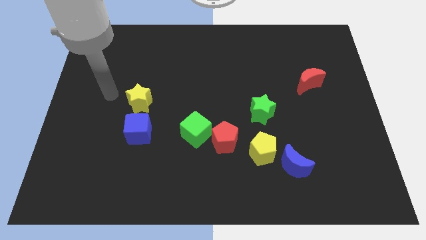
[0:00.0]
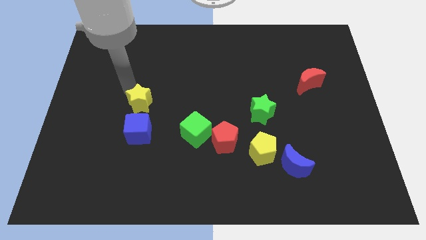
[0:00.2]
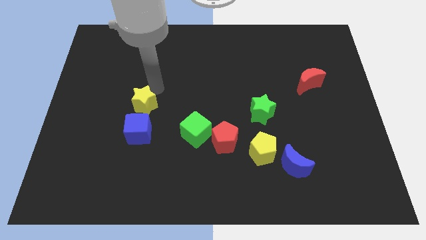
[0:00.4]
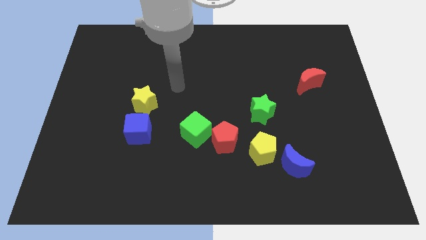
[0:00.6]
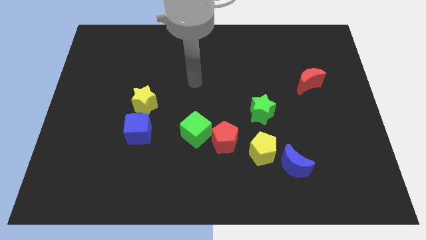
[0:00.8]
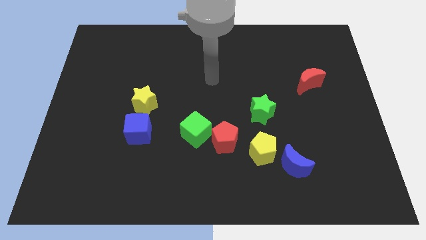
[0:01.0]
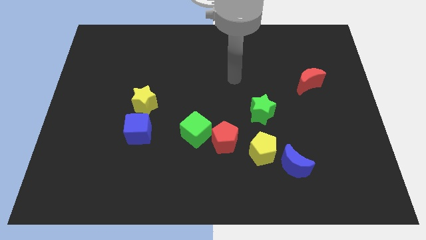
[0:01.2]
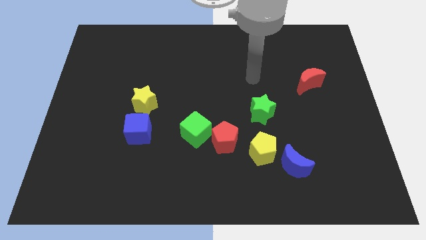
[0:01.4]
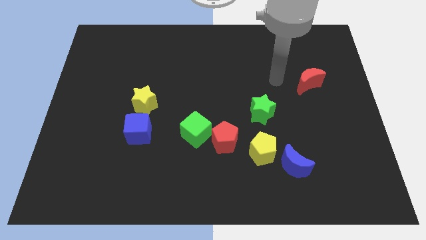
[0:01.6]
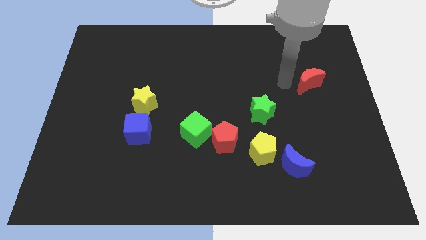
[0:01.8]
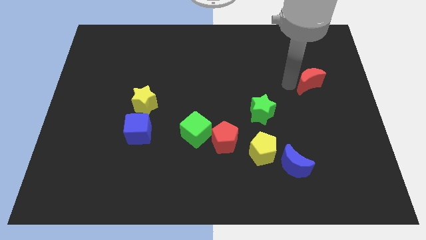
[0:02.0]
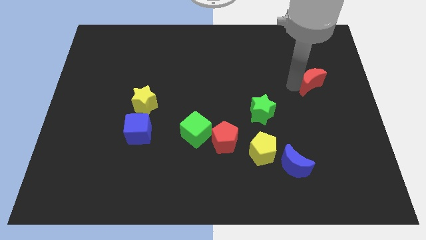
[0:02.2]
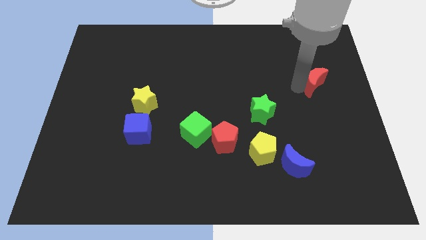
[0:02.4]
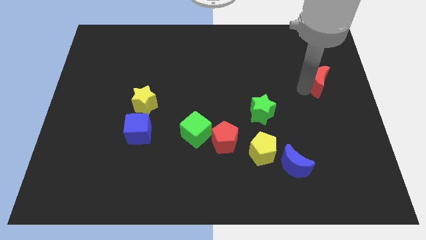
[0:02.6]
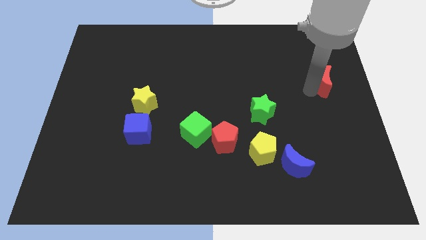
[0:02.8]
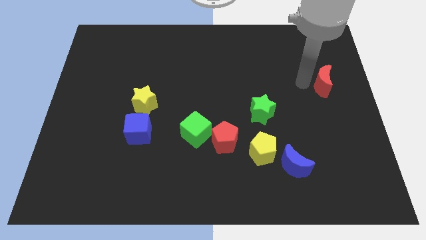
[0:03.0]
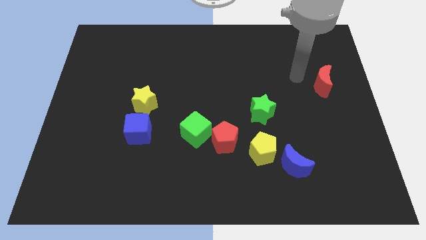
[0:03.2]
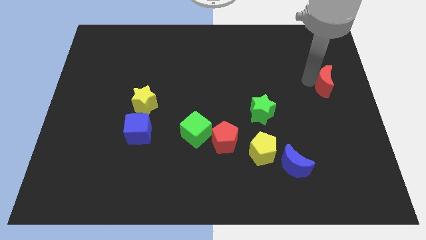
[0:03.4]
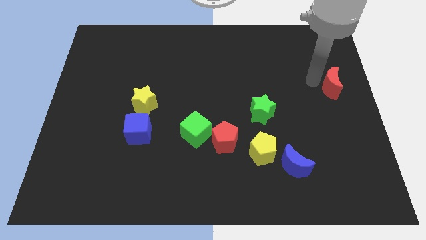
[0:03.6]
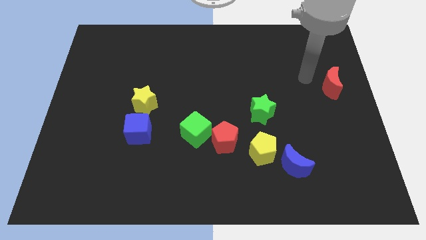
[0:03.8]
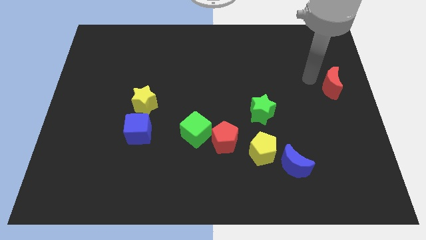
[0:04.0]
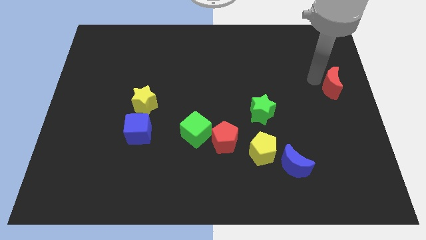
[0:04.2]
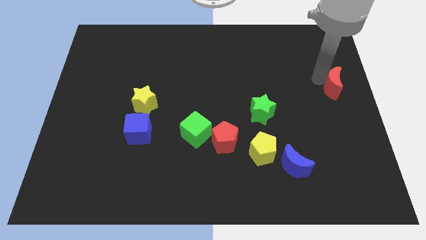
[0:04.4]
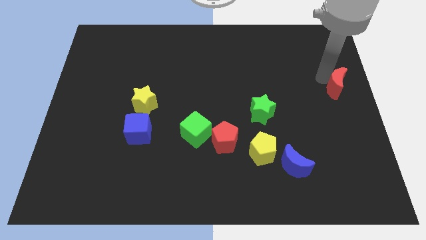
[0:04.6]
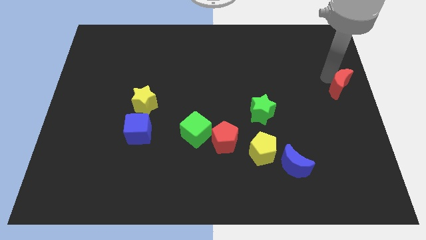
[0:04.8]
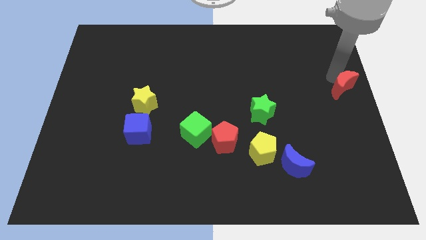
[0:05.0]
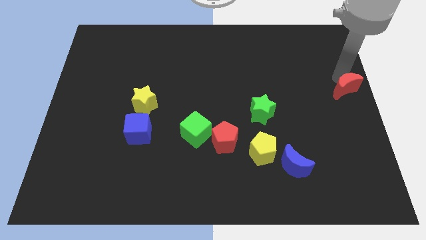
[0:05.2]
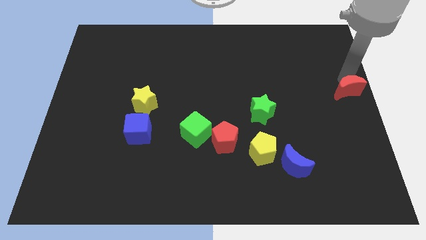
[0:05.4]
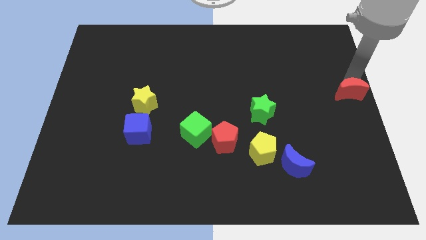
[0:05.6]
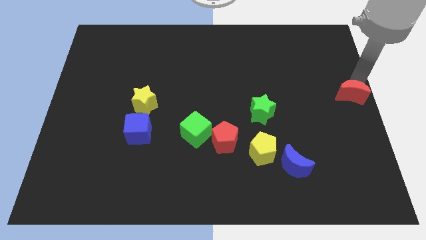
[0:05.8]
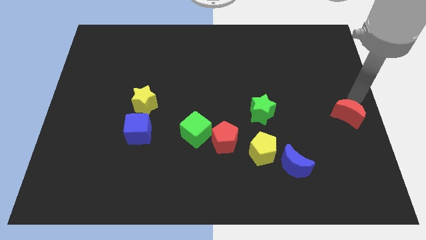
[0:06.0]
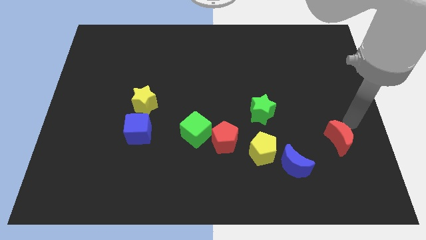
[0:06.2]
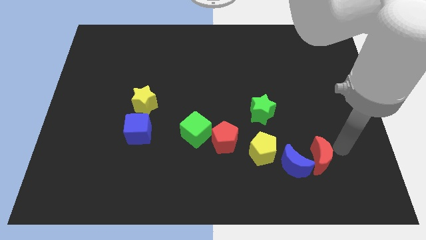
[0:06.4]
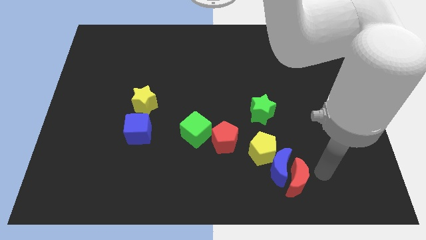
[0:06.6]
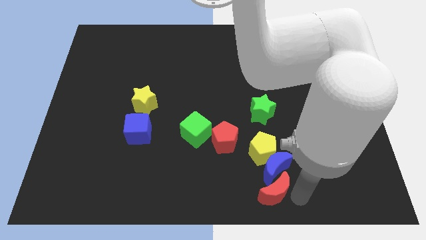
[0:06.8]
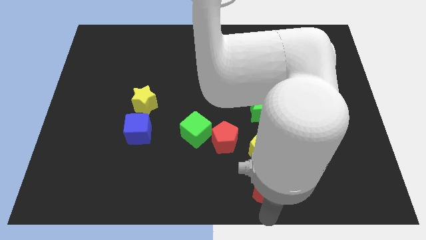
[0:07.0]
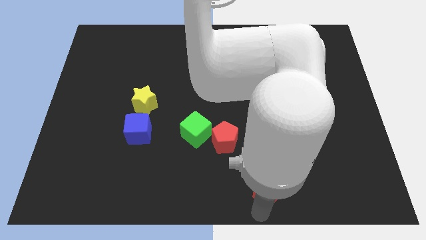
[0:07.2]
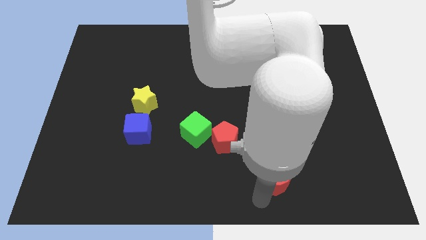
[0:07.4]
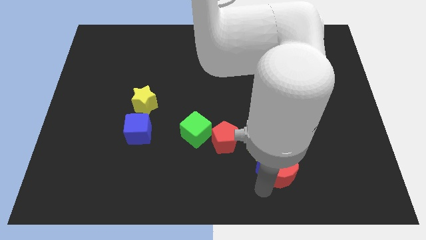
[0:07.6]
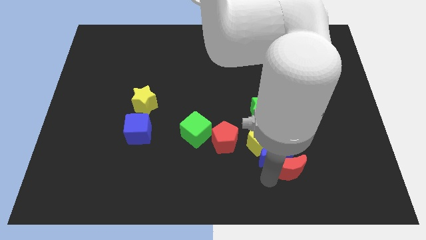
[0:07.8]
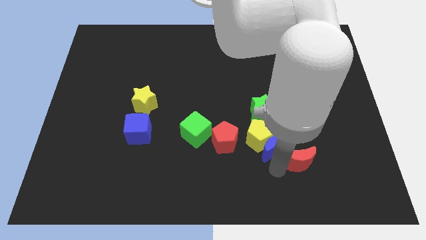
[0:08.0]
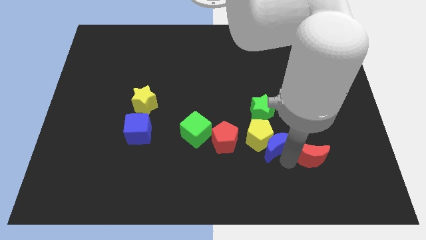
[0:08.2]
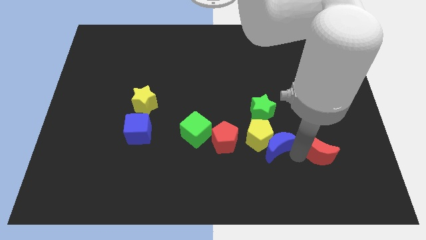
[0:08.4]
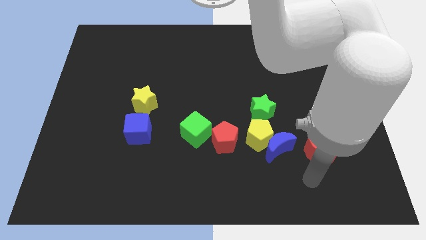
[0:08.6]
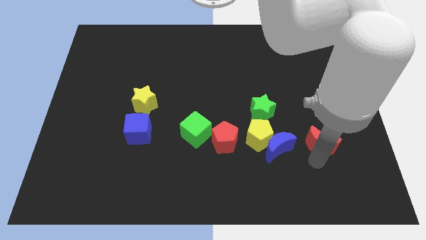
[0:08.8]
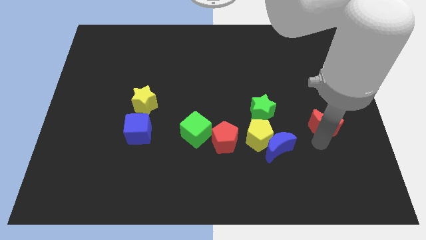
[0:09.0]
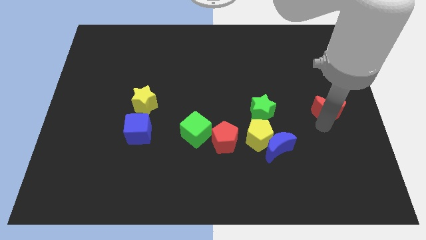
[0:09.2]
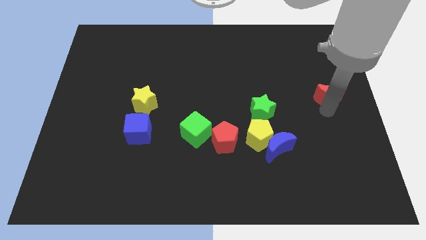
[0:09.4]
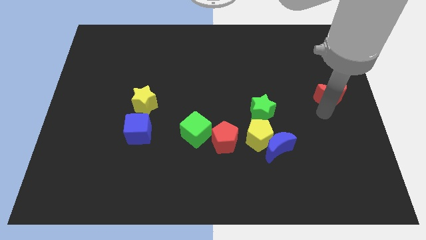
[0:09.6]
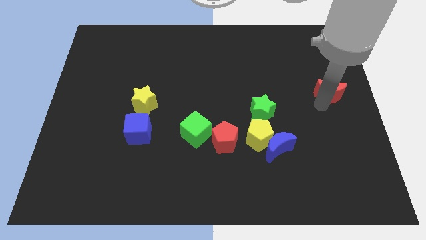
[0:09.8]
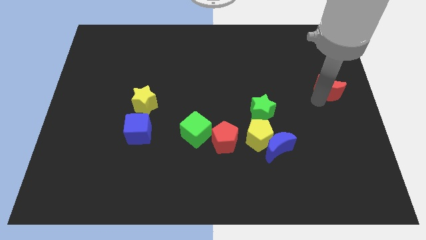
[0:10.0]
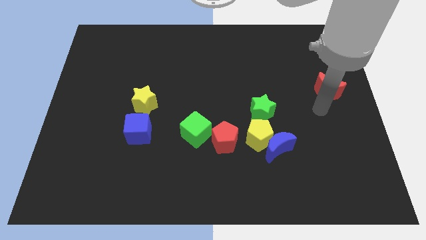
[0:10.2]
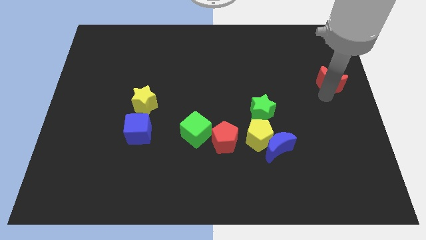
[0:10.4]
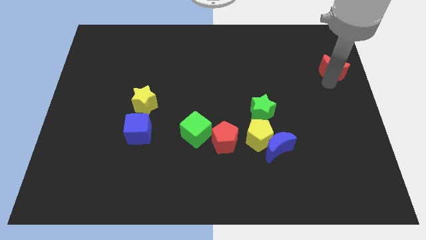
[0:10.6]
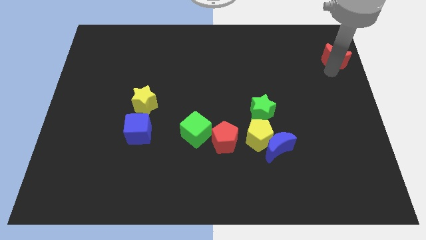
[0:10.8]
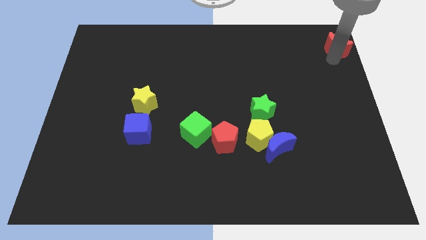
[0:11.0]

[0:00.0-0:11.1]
put the red moon to the top right of the board

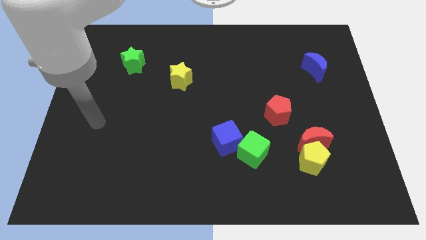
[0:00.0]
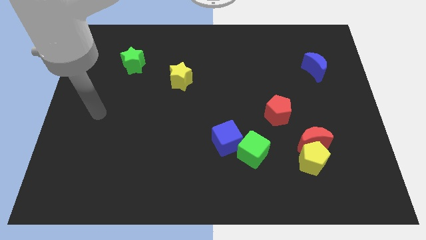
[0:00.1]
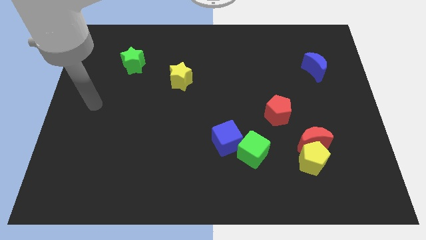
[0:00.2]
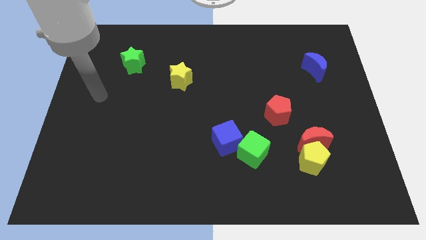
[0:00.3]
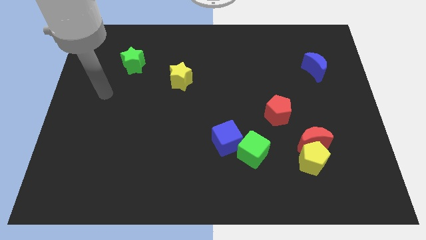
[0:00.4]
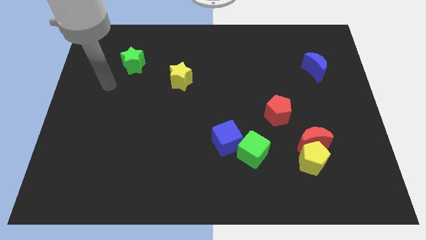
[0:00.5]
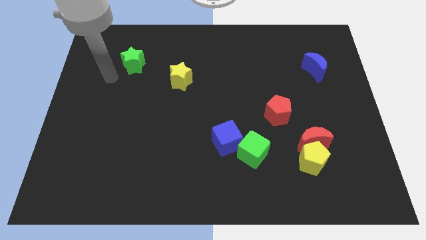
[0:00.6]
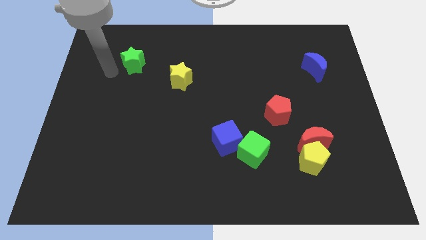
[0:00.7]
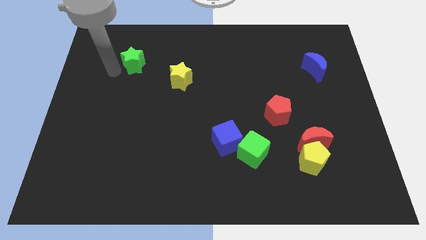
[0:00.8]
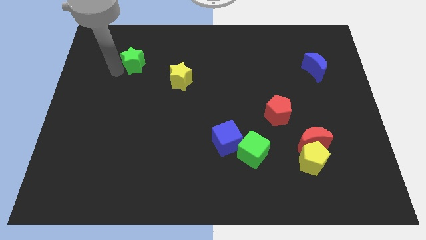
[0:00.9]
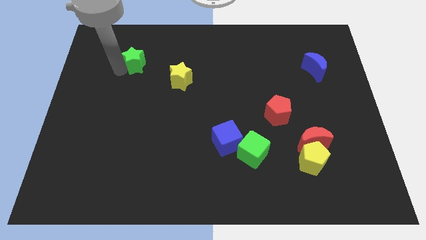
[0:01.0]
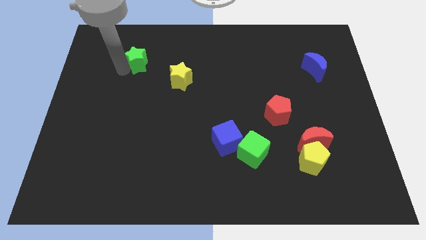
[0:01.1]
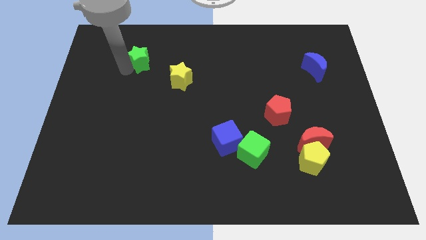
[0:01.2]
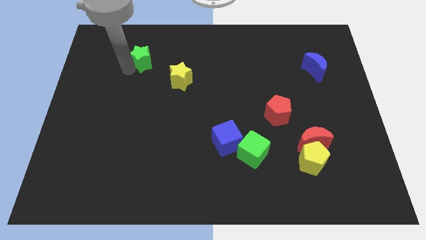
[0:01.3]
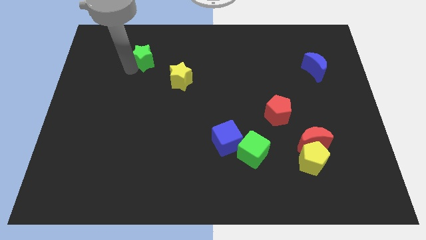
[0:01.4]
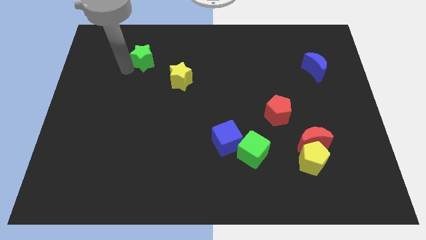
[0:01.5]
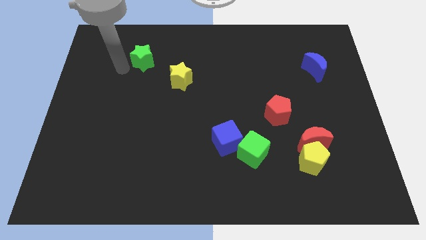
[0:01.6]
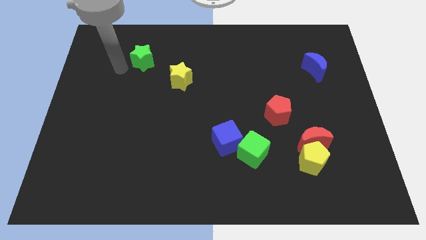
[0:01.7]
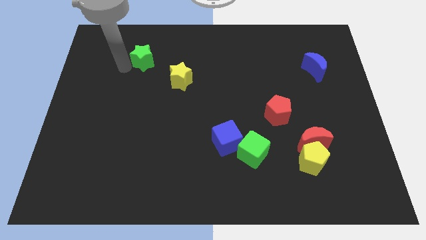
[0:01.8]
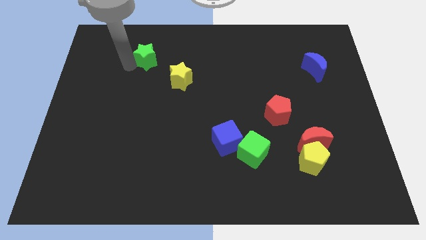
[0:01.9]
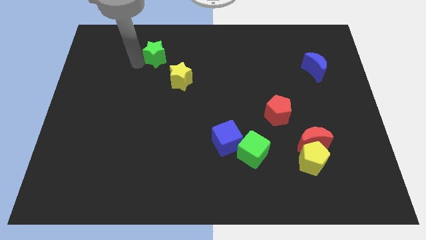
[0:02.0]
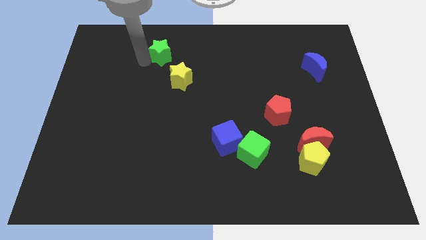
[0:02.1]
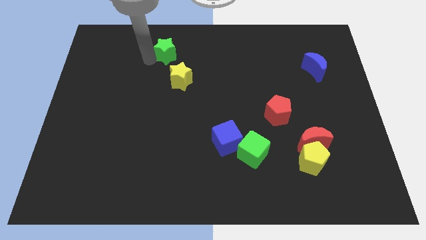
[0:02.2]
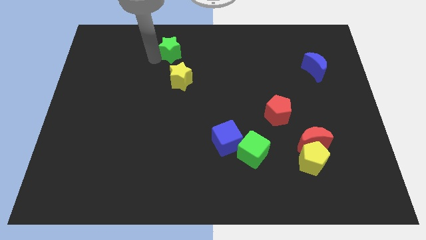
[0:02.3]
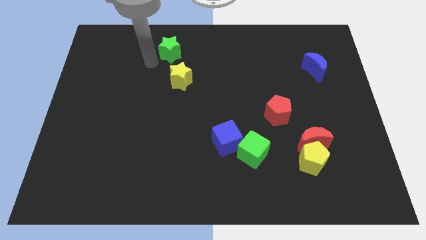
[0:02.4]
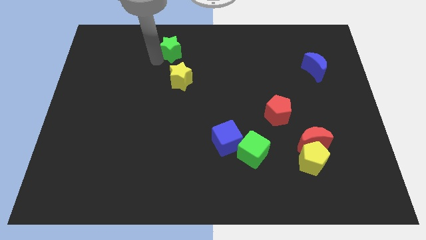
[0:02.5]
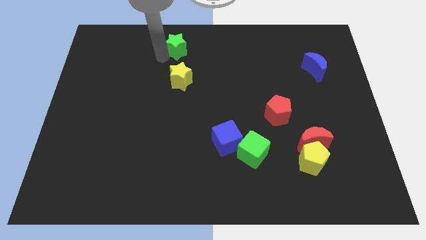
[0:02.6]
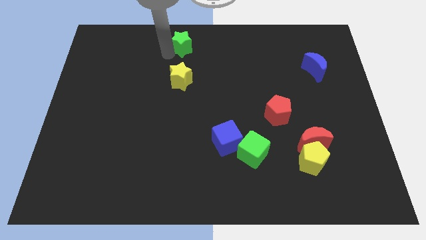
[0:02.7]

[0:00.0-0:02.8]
put the green star to the towards your base
